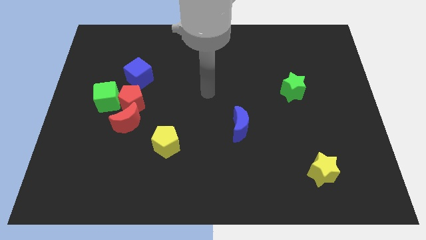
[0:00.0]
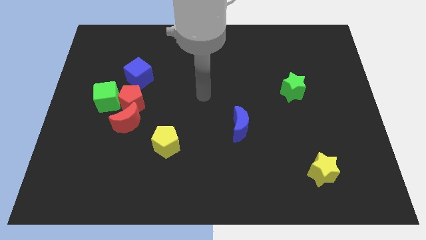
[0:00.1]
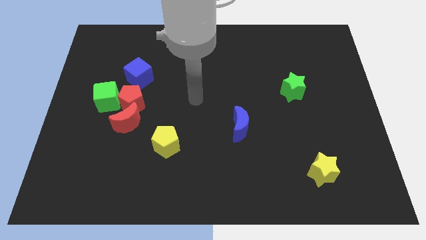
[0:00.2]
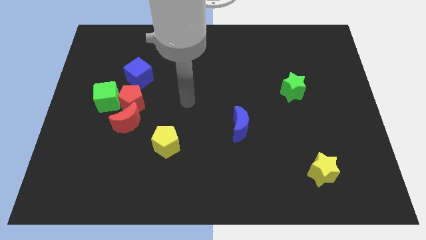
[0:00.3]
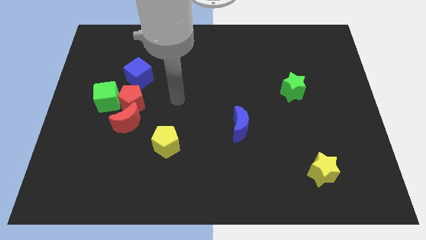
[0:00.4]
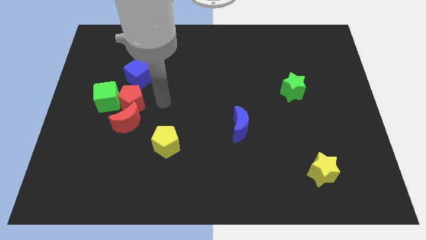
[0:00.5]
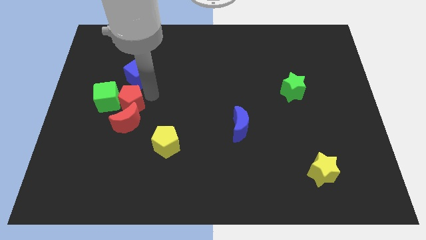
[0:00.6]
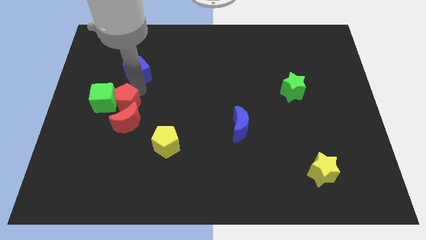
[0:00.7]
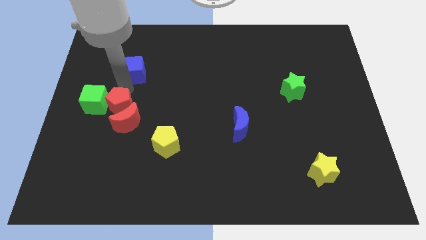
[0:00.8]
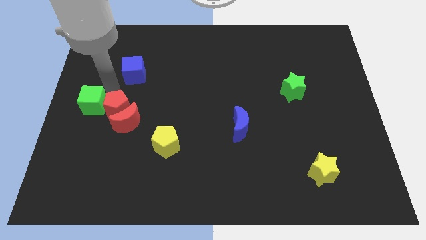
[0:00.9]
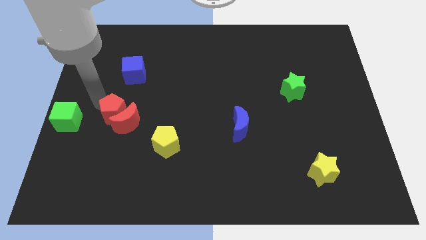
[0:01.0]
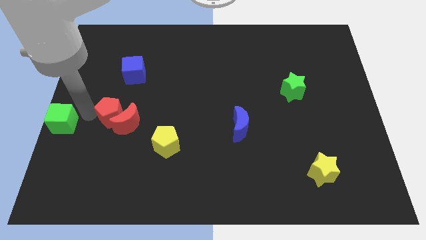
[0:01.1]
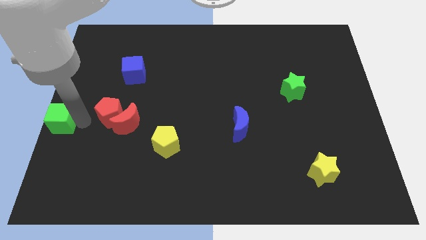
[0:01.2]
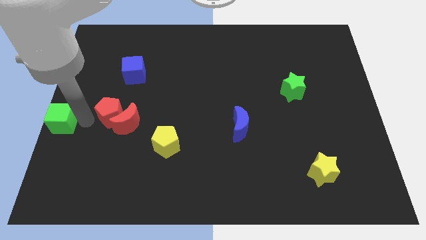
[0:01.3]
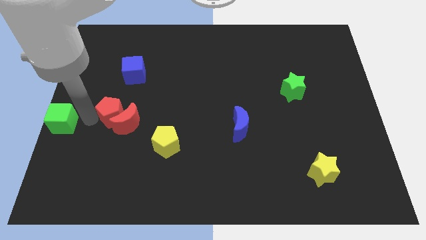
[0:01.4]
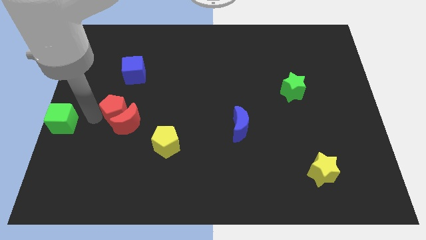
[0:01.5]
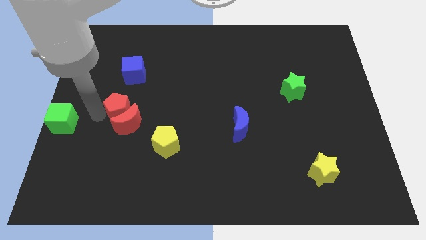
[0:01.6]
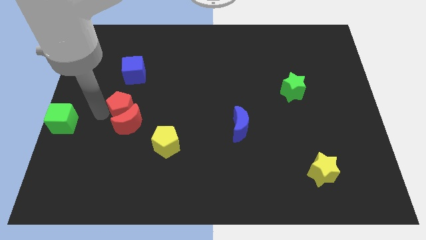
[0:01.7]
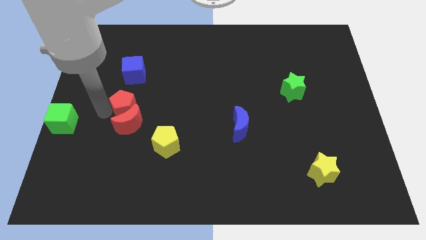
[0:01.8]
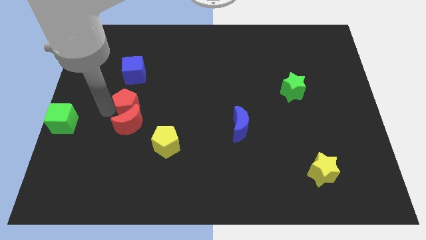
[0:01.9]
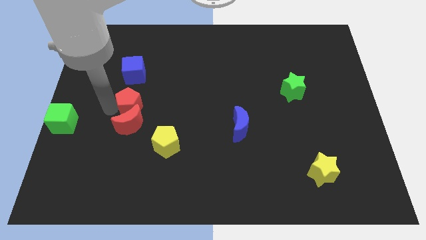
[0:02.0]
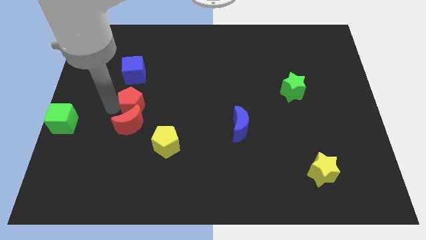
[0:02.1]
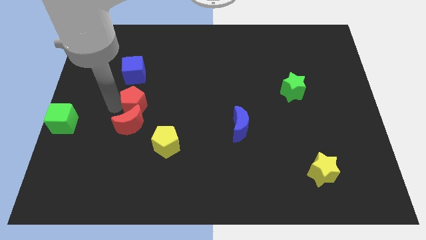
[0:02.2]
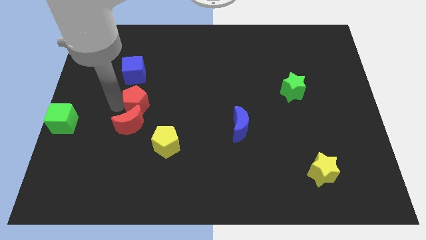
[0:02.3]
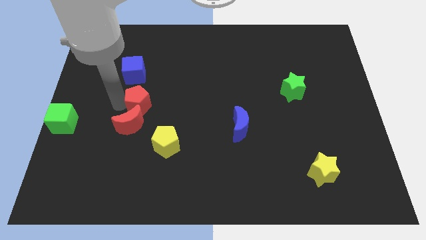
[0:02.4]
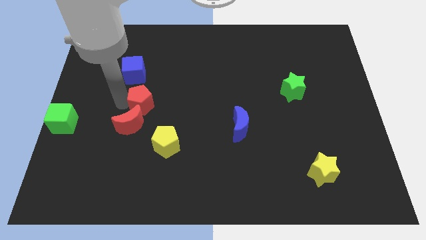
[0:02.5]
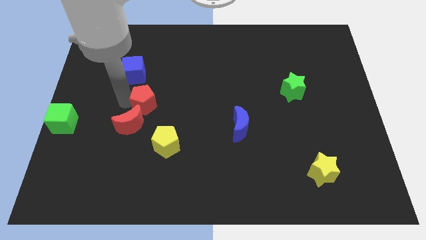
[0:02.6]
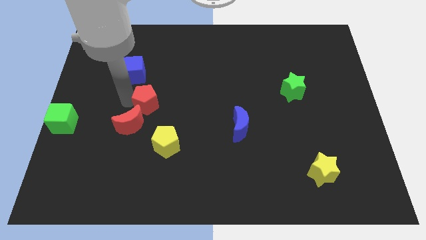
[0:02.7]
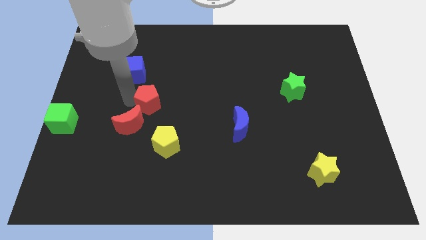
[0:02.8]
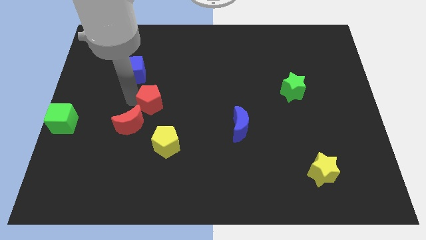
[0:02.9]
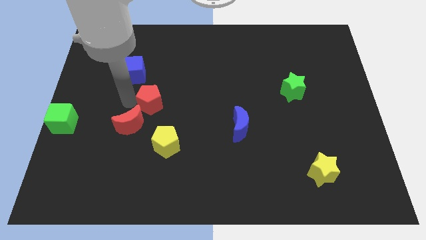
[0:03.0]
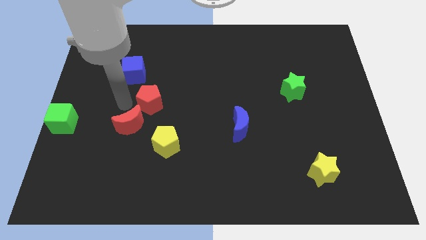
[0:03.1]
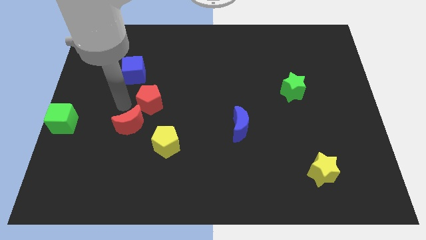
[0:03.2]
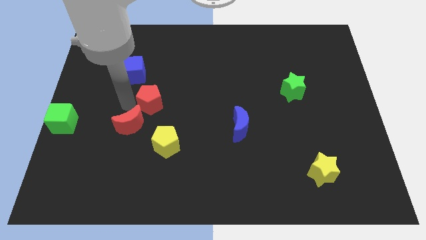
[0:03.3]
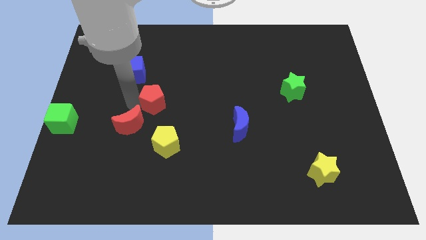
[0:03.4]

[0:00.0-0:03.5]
move the red pentagon away from the clump

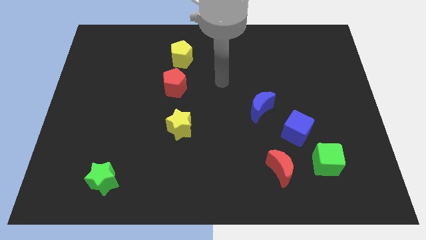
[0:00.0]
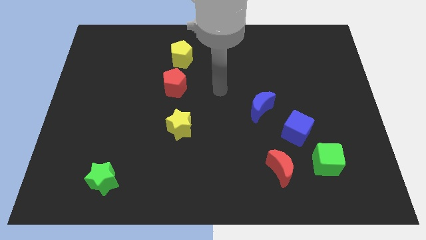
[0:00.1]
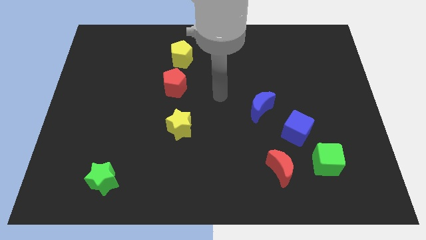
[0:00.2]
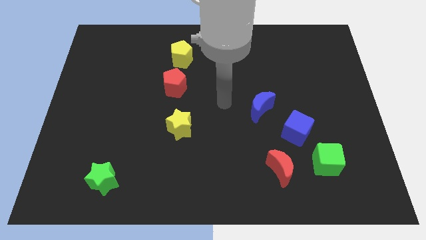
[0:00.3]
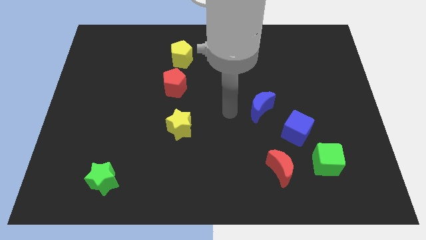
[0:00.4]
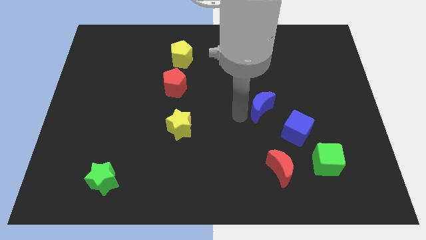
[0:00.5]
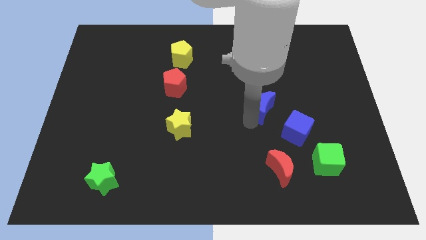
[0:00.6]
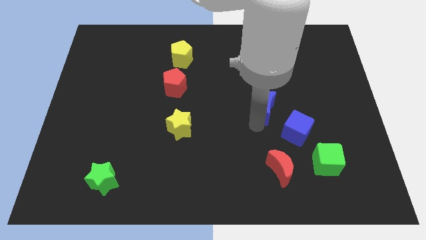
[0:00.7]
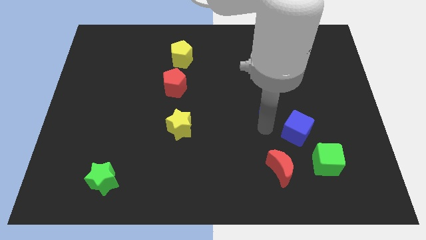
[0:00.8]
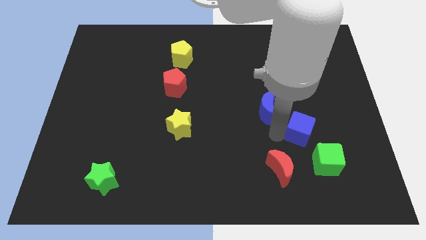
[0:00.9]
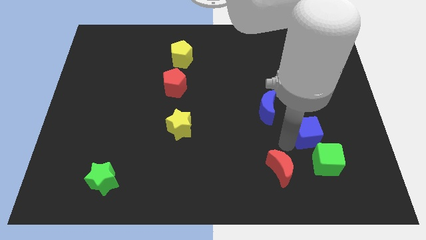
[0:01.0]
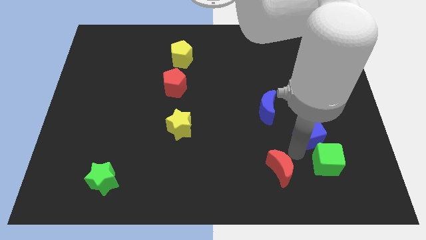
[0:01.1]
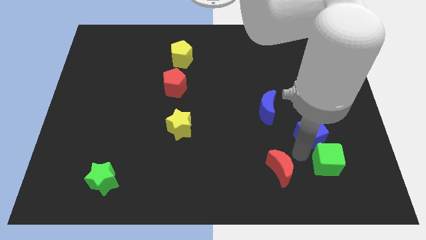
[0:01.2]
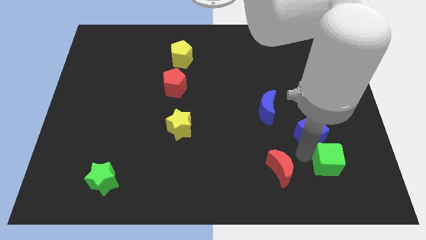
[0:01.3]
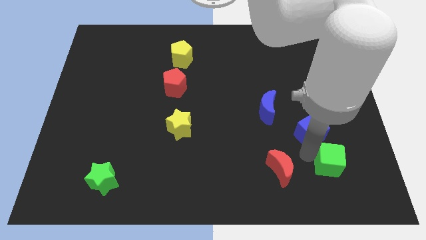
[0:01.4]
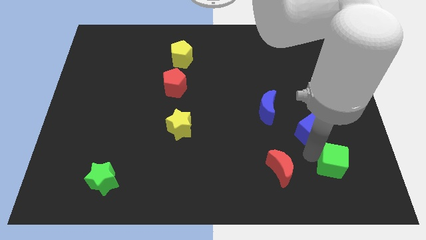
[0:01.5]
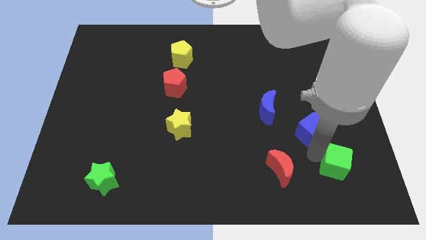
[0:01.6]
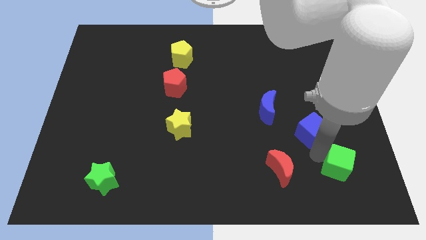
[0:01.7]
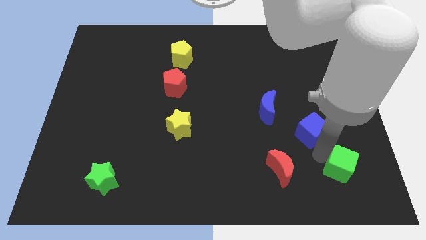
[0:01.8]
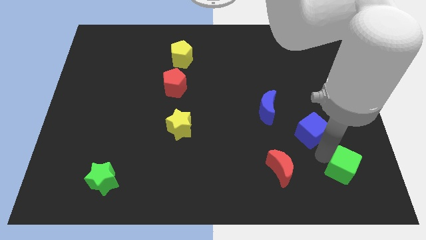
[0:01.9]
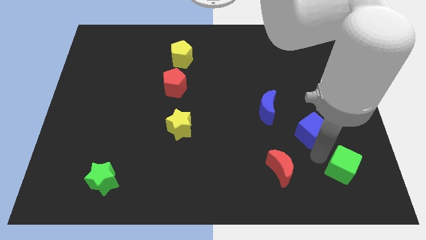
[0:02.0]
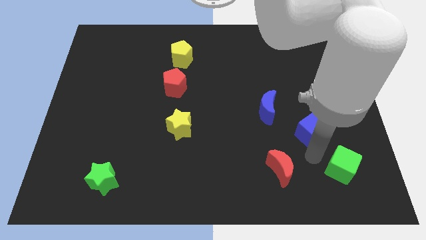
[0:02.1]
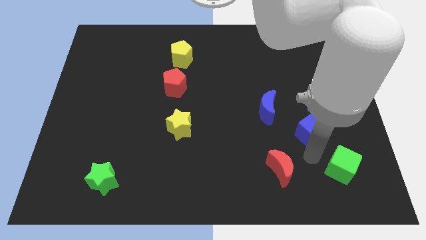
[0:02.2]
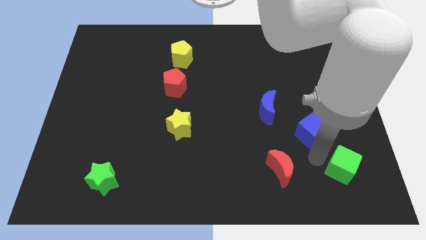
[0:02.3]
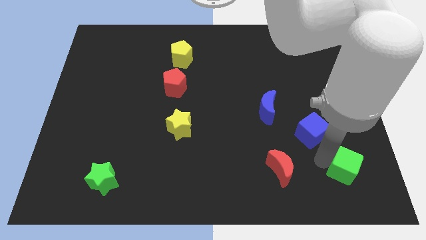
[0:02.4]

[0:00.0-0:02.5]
separate the green cube from the blue cube and red moon

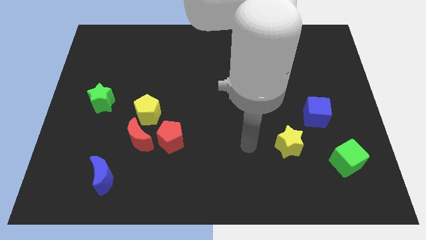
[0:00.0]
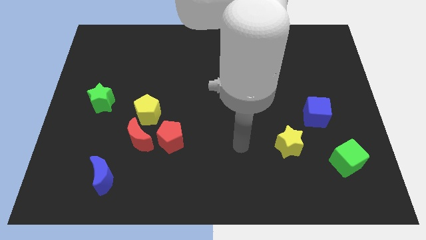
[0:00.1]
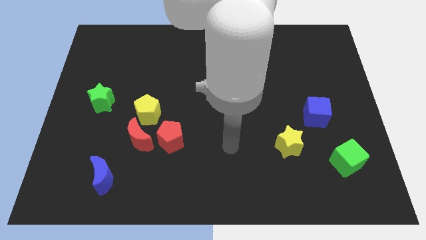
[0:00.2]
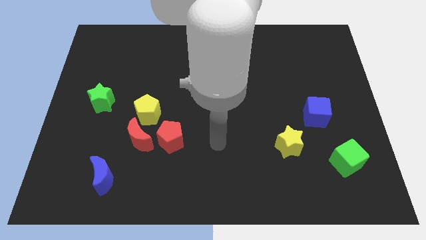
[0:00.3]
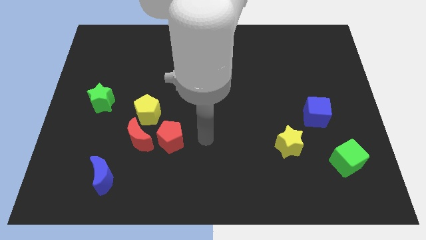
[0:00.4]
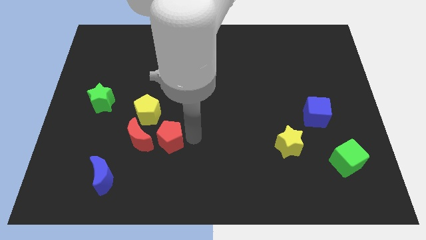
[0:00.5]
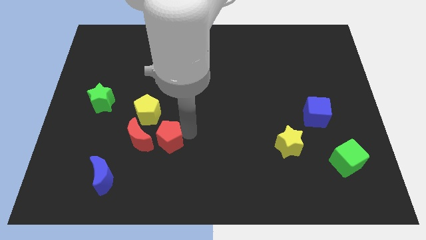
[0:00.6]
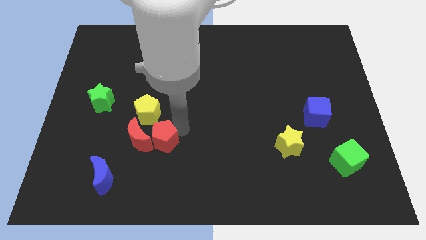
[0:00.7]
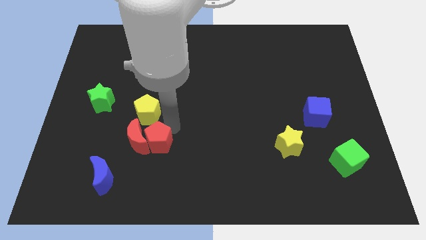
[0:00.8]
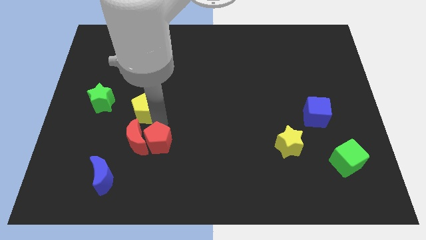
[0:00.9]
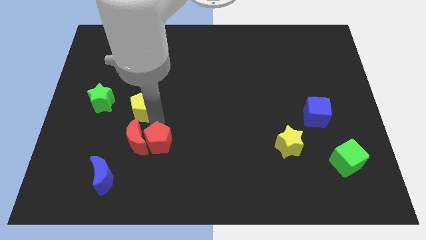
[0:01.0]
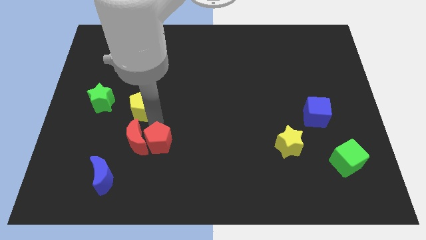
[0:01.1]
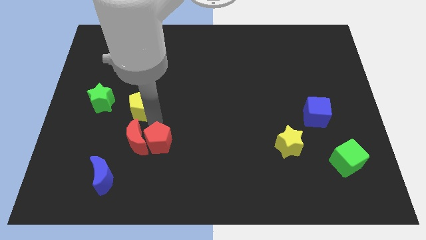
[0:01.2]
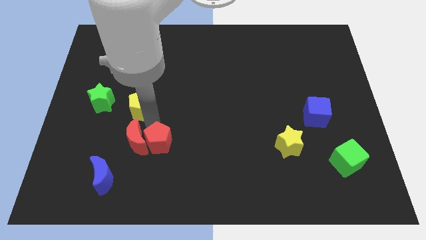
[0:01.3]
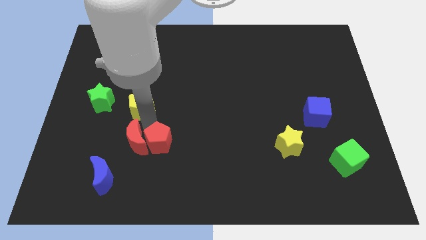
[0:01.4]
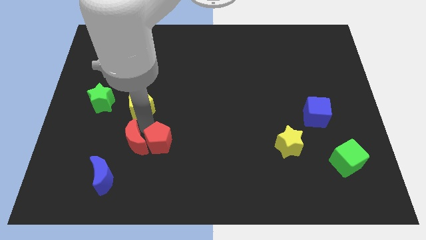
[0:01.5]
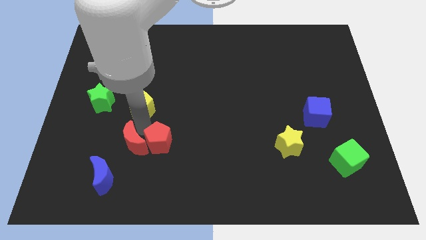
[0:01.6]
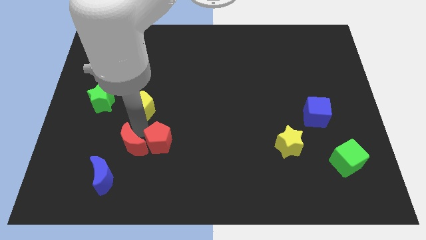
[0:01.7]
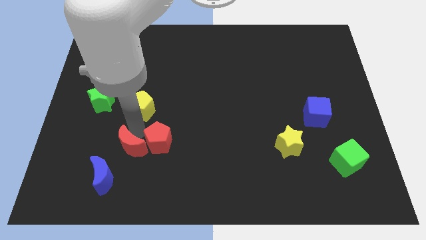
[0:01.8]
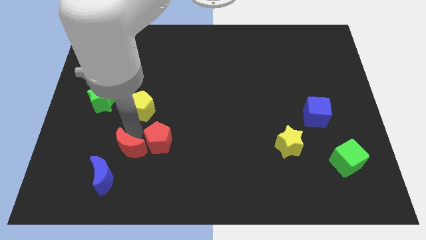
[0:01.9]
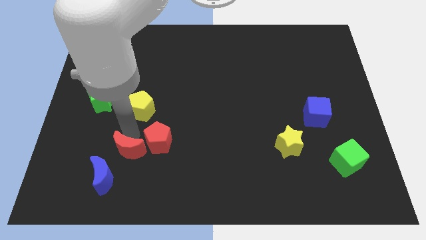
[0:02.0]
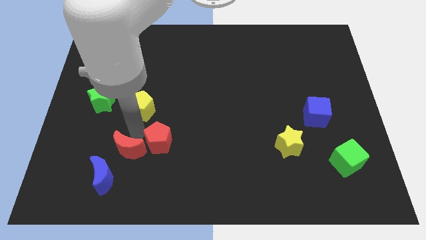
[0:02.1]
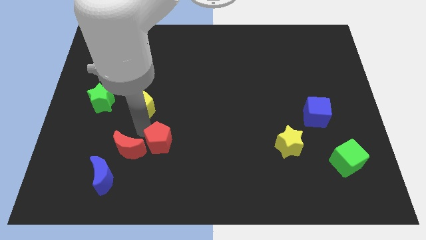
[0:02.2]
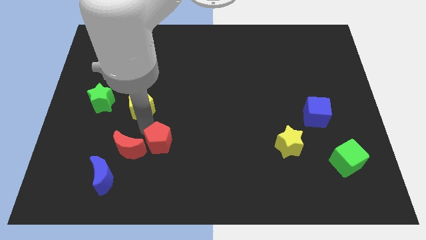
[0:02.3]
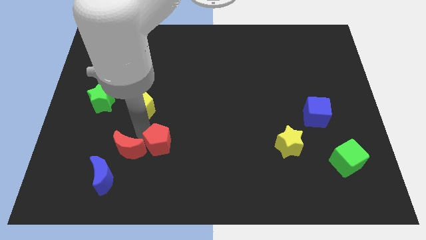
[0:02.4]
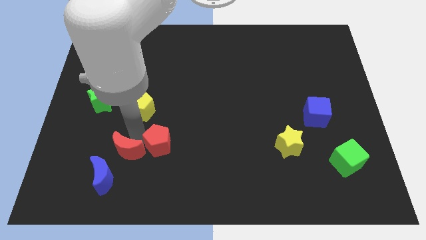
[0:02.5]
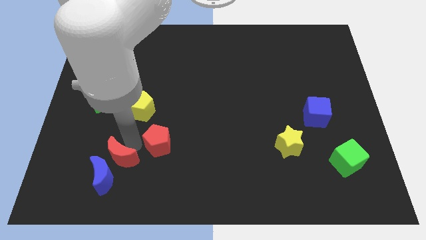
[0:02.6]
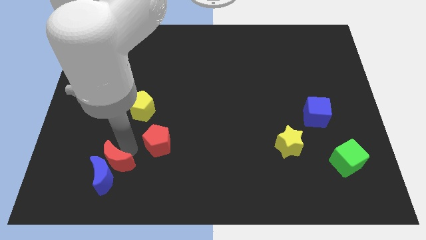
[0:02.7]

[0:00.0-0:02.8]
pull the red moon apart from the red pentagon and yellow pentagon

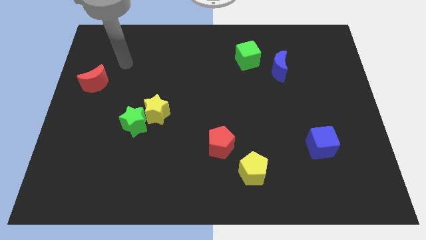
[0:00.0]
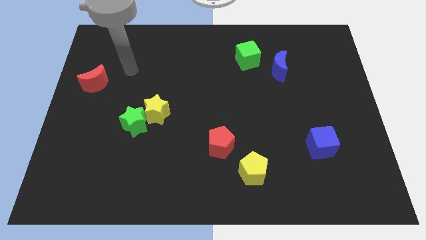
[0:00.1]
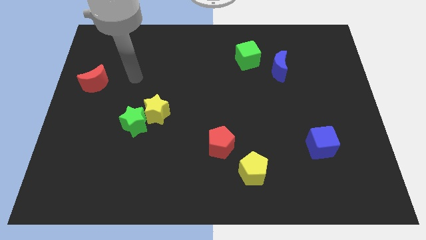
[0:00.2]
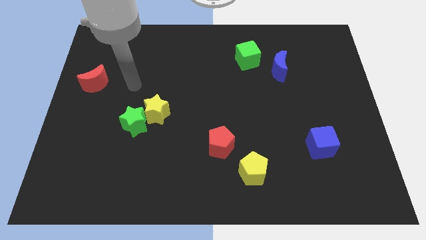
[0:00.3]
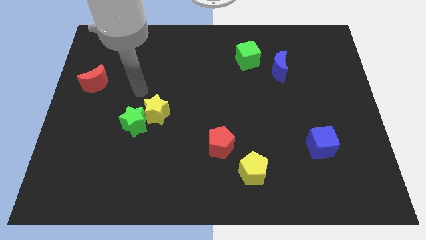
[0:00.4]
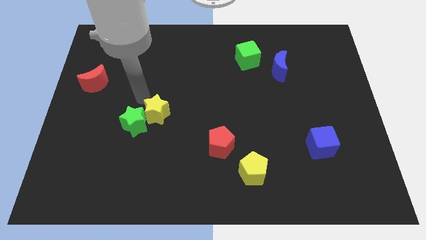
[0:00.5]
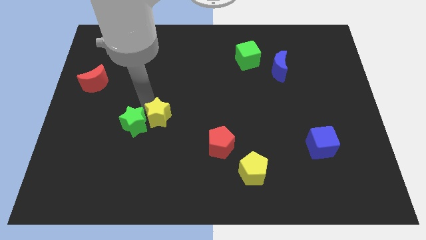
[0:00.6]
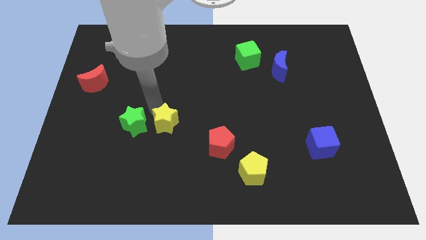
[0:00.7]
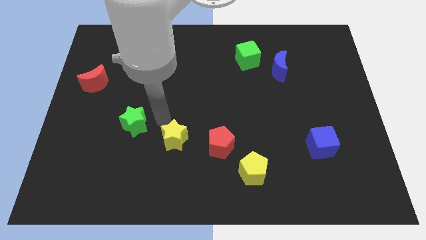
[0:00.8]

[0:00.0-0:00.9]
separate the green star from the yellow star
